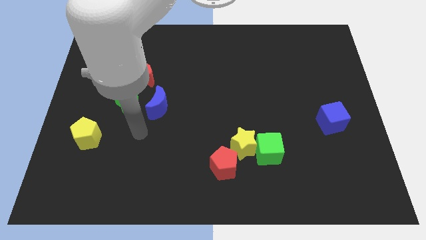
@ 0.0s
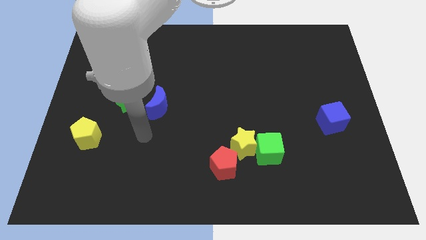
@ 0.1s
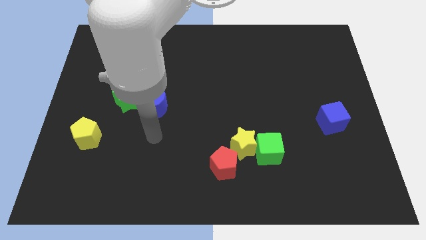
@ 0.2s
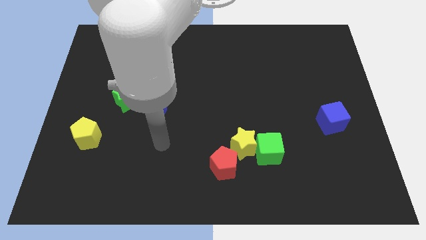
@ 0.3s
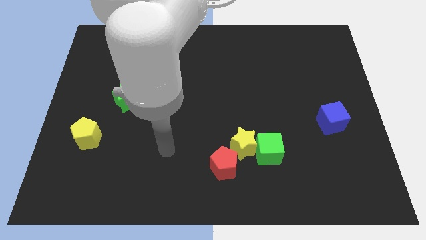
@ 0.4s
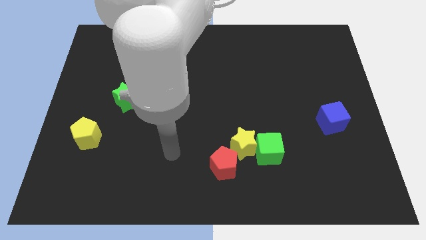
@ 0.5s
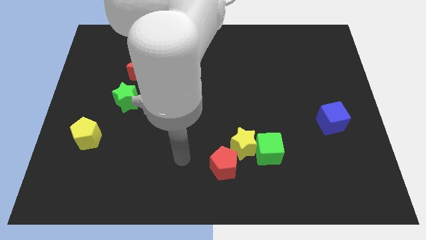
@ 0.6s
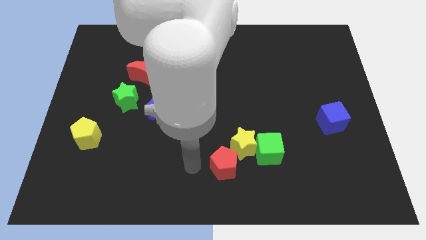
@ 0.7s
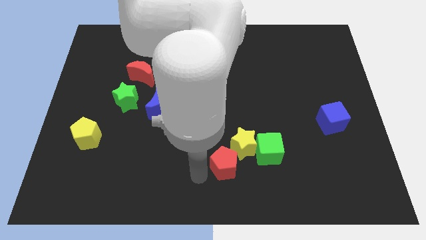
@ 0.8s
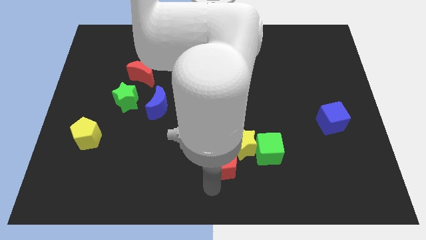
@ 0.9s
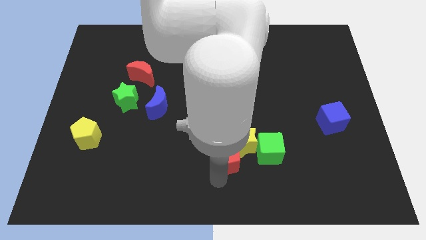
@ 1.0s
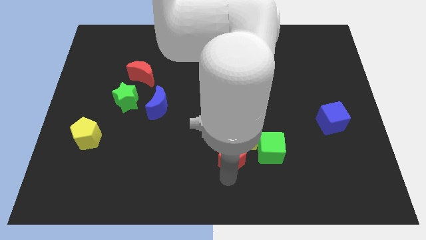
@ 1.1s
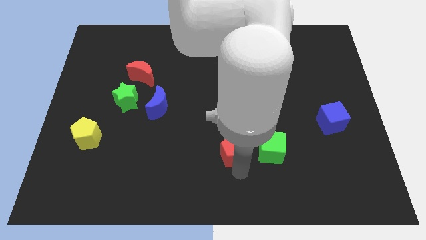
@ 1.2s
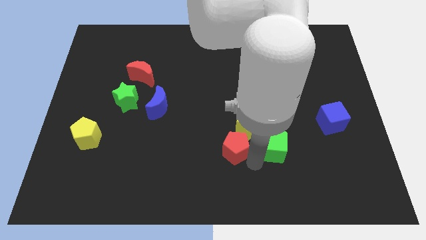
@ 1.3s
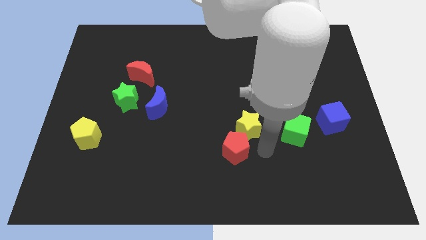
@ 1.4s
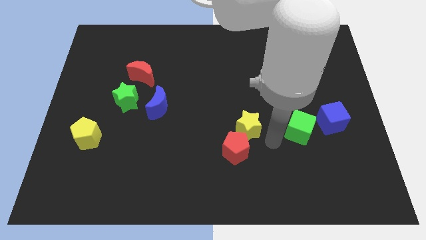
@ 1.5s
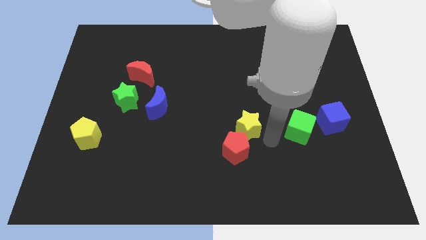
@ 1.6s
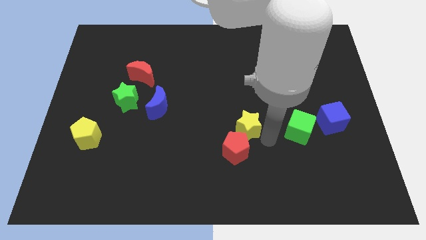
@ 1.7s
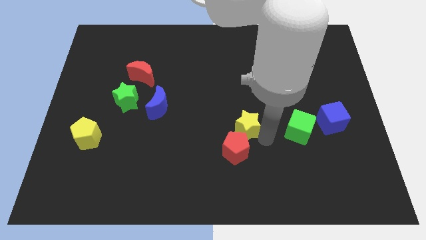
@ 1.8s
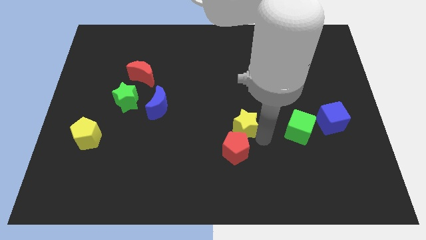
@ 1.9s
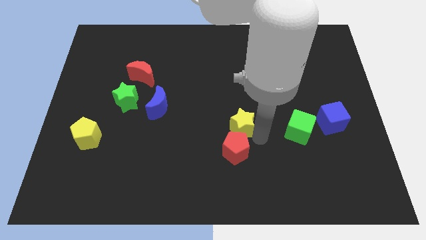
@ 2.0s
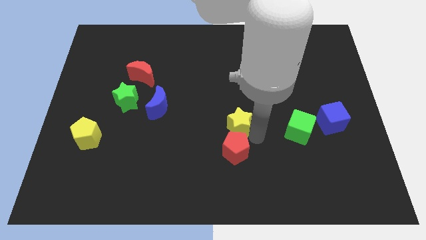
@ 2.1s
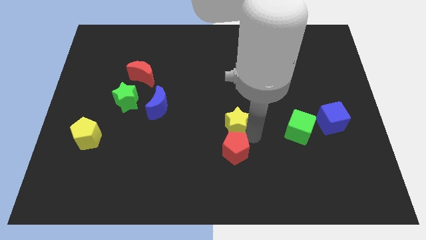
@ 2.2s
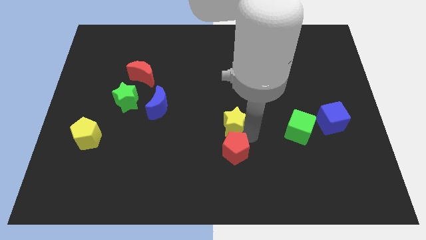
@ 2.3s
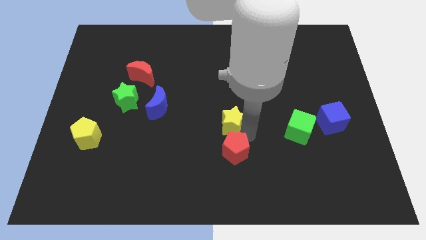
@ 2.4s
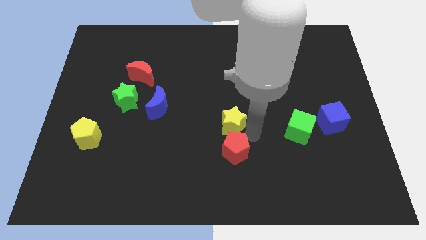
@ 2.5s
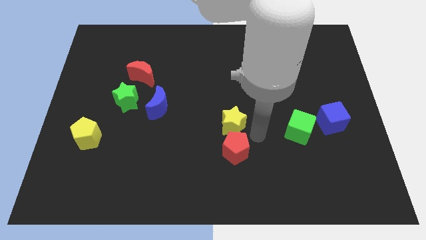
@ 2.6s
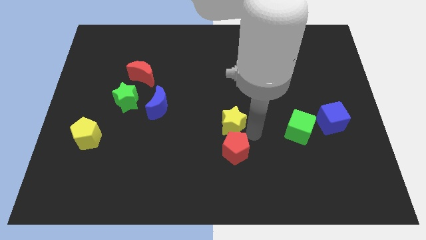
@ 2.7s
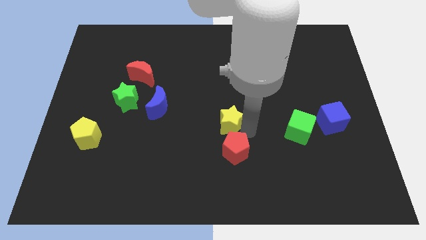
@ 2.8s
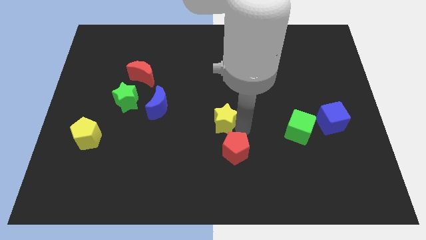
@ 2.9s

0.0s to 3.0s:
move the yellow star away from the green cube and red pentagon

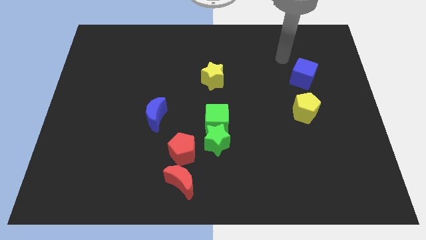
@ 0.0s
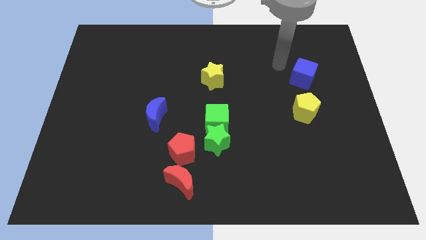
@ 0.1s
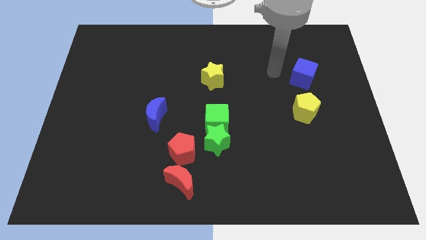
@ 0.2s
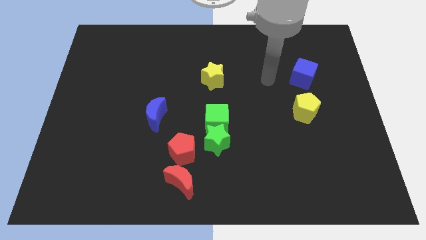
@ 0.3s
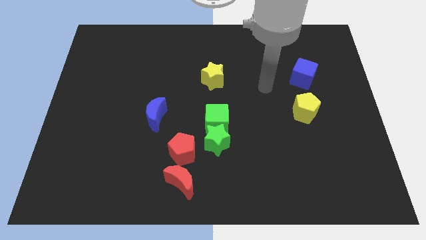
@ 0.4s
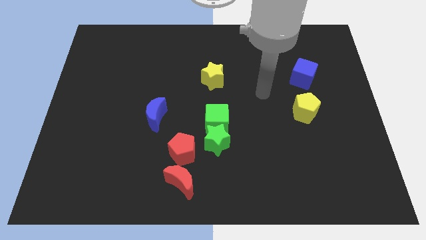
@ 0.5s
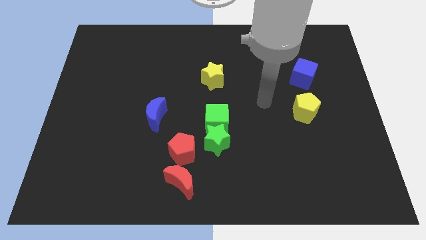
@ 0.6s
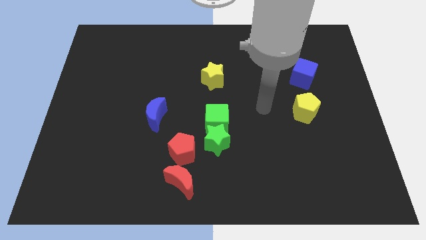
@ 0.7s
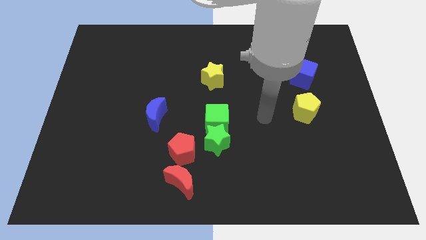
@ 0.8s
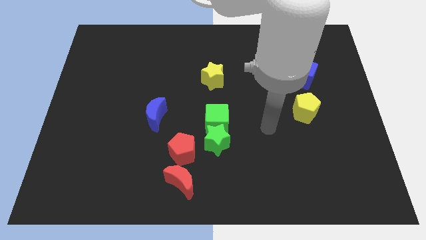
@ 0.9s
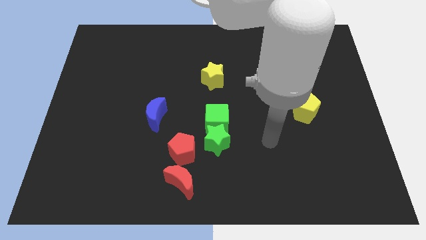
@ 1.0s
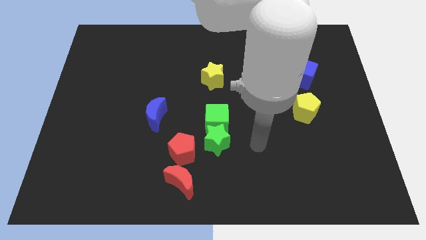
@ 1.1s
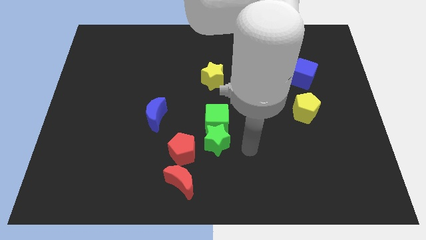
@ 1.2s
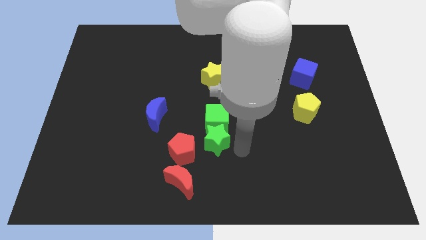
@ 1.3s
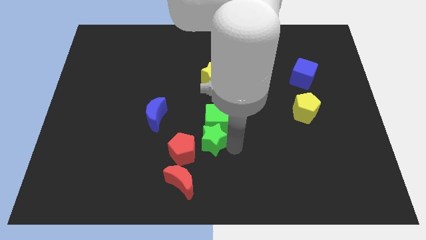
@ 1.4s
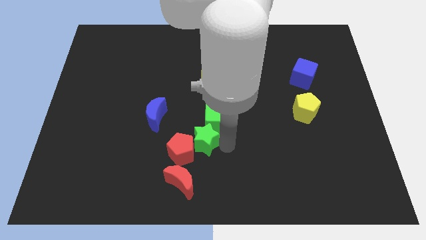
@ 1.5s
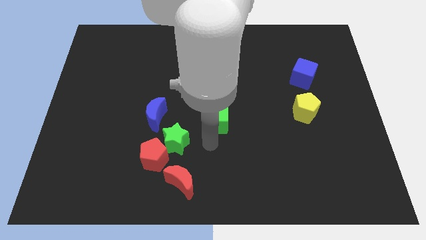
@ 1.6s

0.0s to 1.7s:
pull the green cube apart from the green star

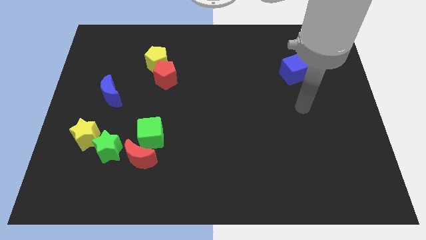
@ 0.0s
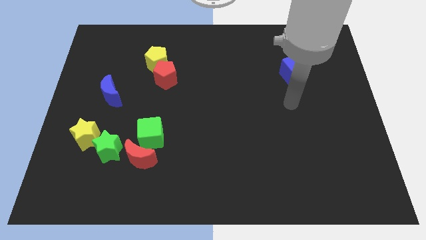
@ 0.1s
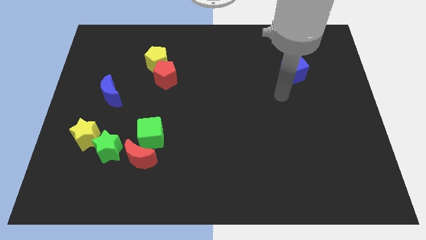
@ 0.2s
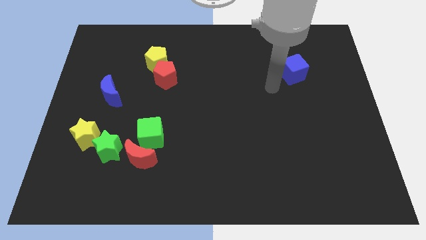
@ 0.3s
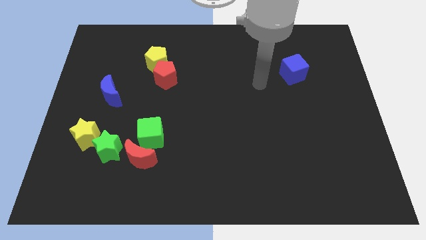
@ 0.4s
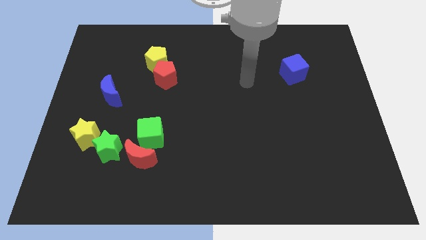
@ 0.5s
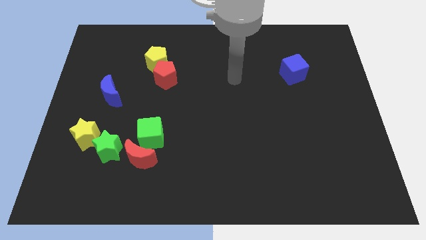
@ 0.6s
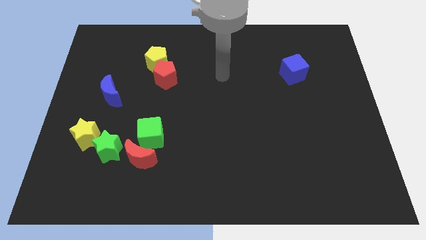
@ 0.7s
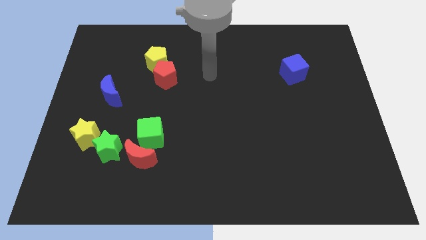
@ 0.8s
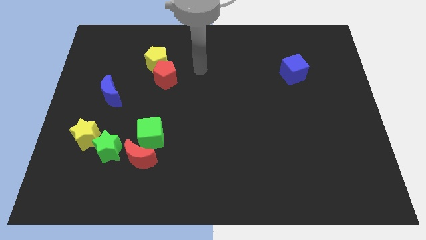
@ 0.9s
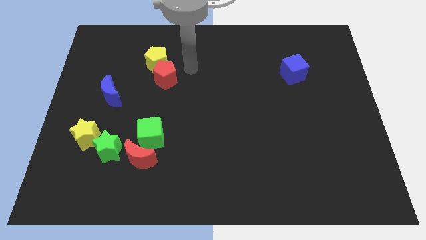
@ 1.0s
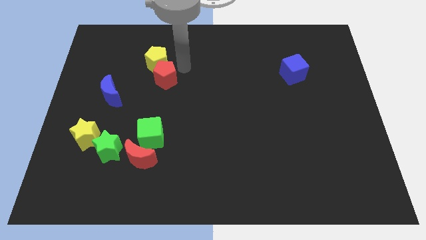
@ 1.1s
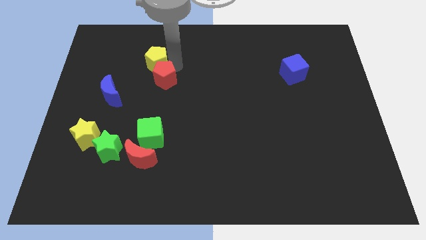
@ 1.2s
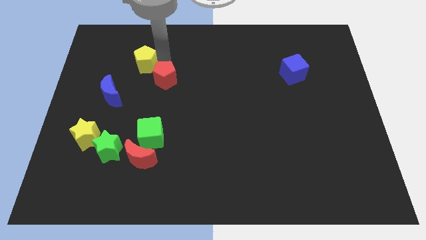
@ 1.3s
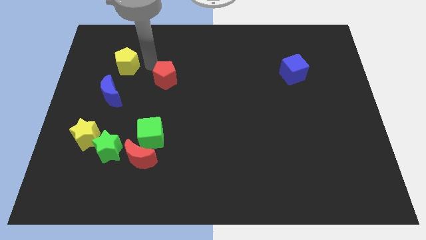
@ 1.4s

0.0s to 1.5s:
pull the red pentagon apart from the yellow pentagon

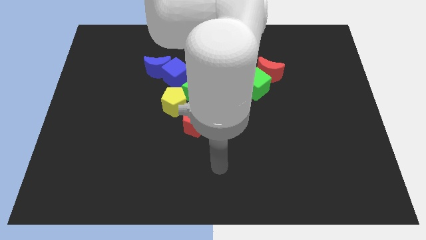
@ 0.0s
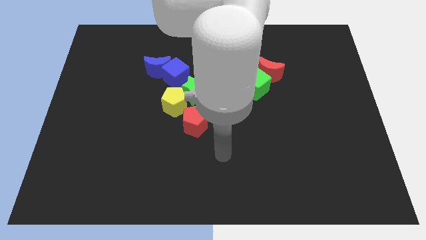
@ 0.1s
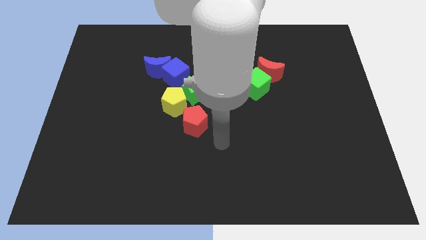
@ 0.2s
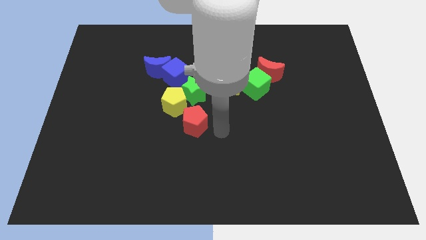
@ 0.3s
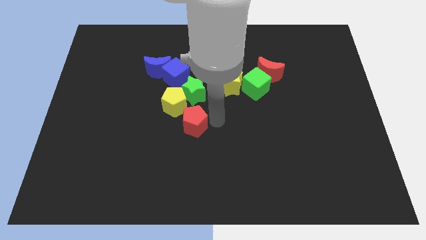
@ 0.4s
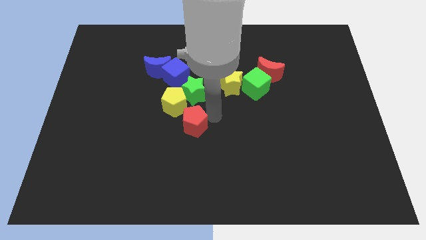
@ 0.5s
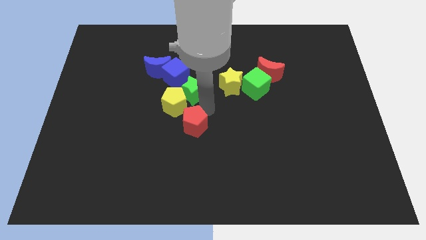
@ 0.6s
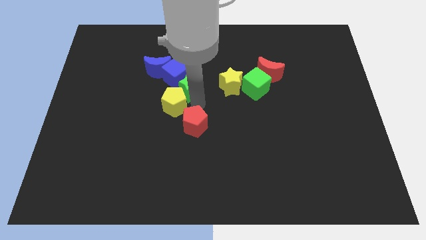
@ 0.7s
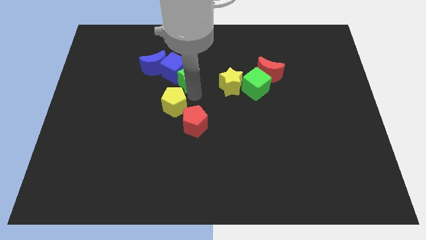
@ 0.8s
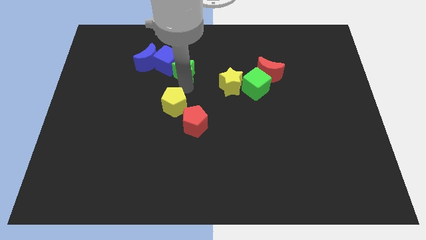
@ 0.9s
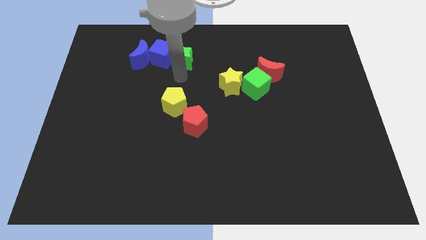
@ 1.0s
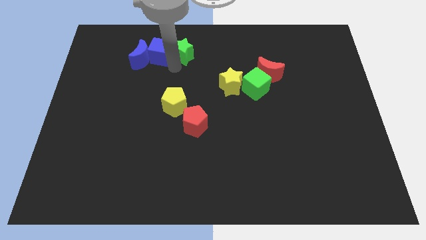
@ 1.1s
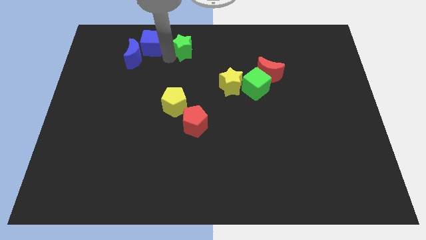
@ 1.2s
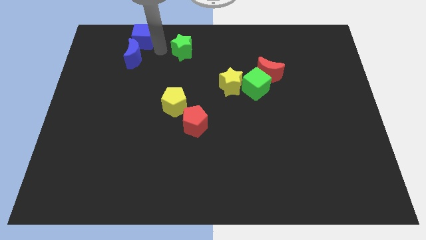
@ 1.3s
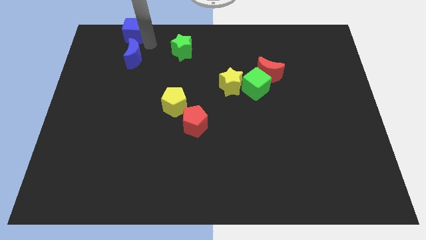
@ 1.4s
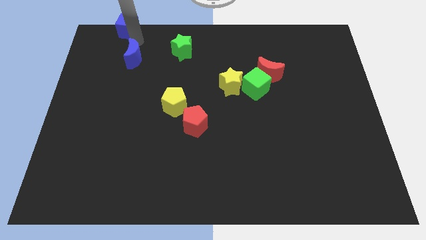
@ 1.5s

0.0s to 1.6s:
pull the blue moon apart from the blue cube

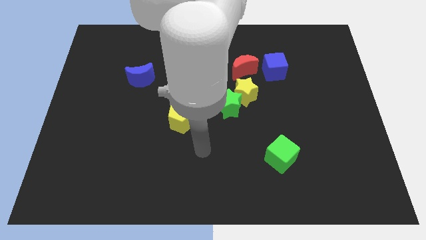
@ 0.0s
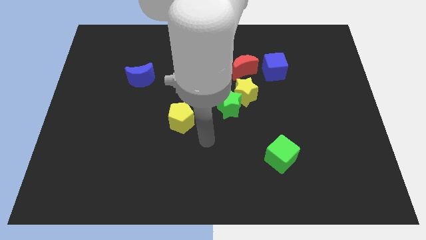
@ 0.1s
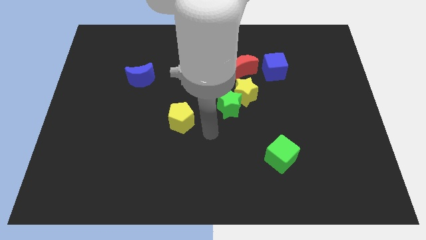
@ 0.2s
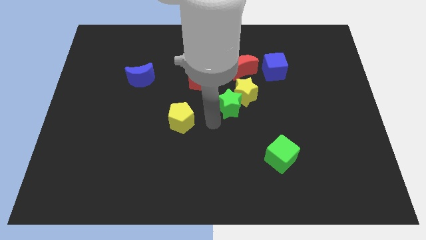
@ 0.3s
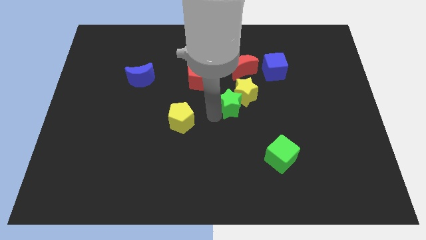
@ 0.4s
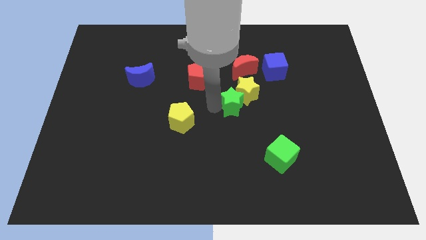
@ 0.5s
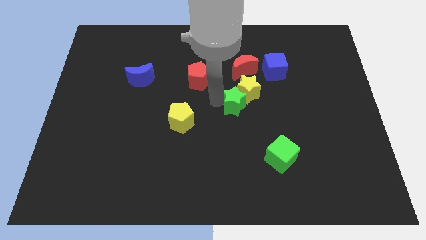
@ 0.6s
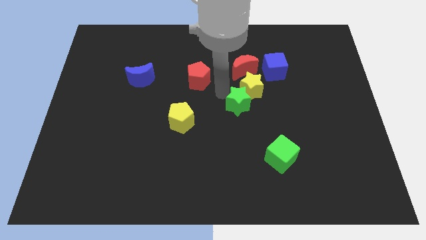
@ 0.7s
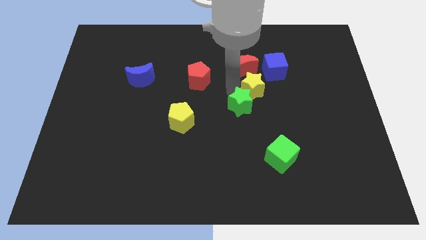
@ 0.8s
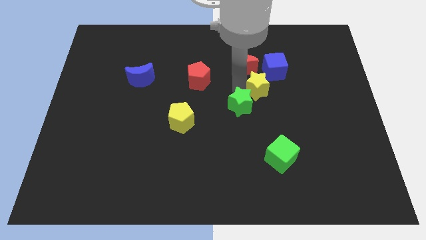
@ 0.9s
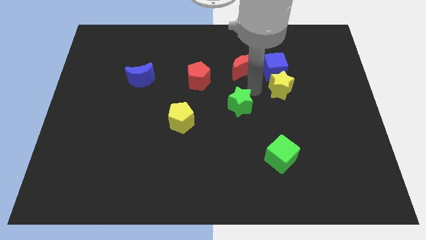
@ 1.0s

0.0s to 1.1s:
separate the green star from the yellow star

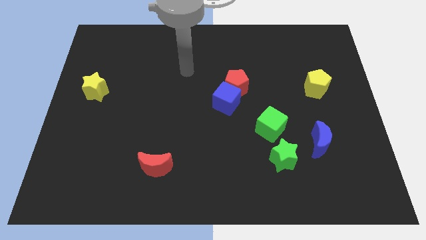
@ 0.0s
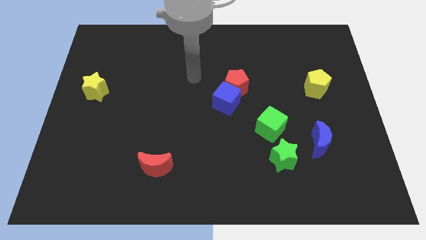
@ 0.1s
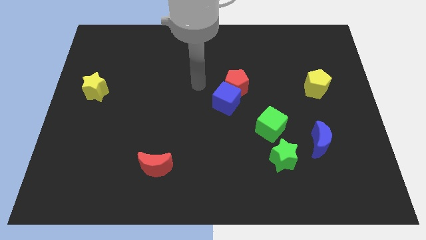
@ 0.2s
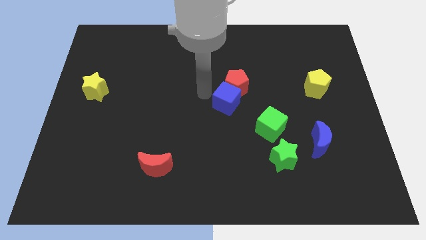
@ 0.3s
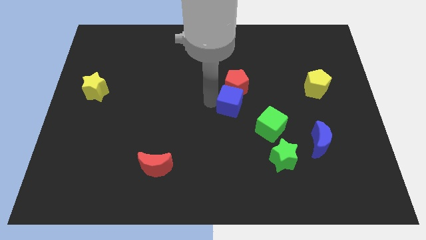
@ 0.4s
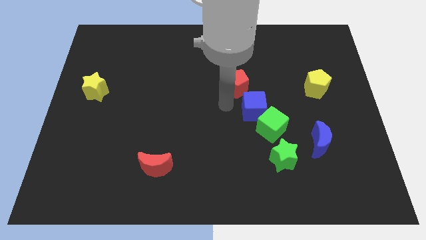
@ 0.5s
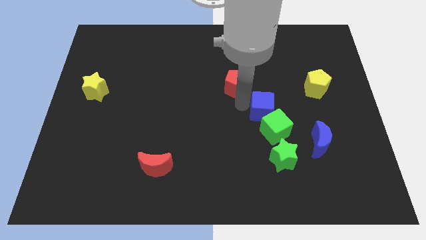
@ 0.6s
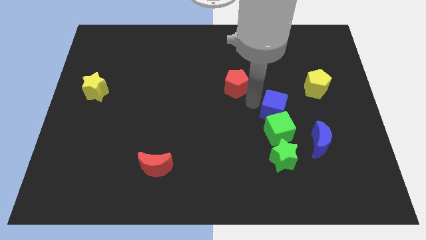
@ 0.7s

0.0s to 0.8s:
move the red pentagon away from the blue cube
